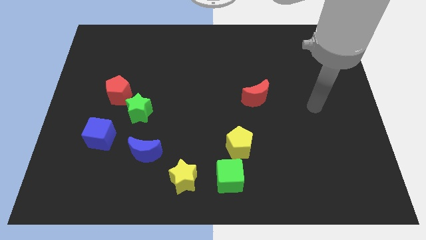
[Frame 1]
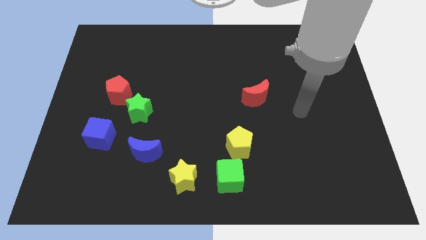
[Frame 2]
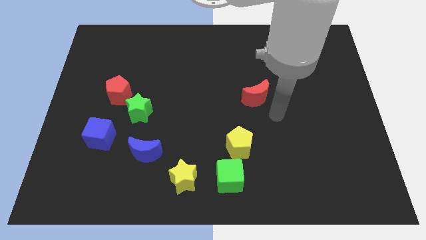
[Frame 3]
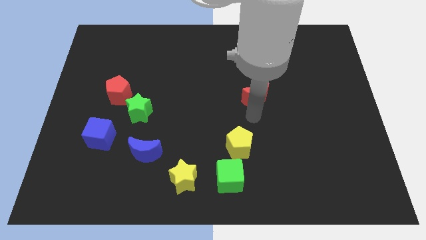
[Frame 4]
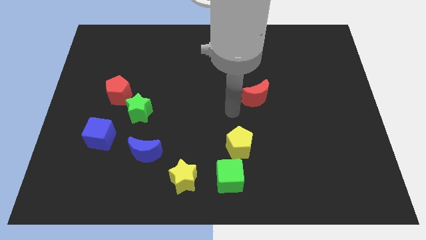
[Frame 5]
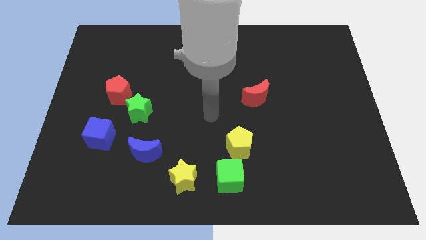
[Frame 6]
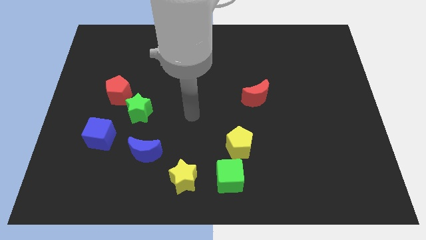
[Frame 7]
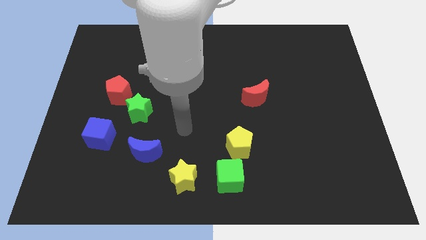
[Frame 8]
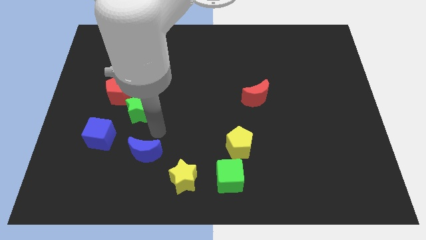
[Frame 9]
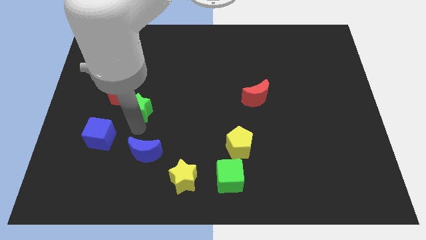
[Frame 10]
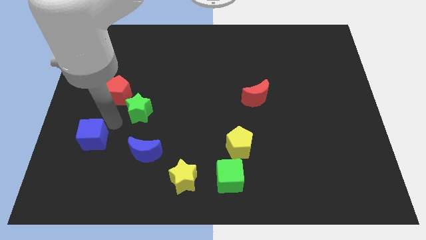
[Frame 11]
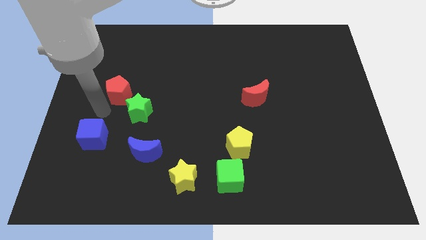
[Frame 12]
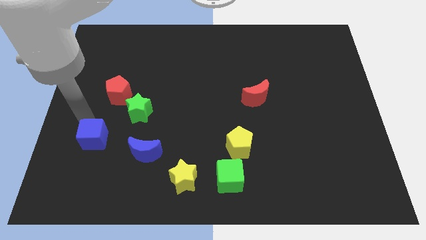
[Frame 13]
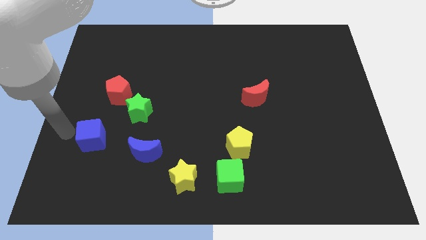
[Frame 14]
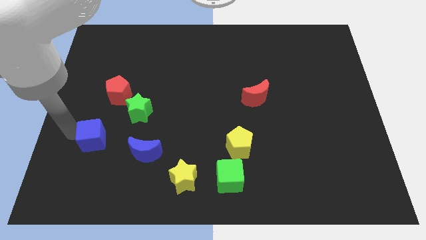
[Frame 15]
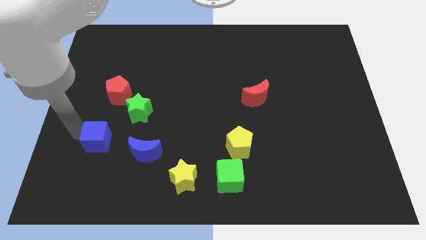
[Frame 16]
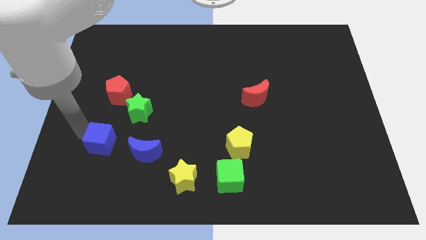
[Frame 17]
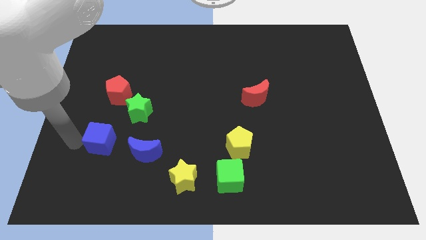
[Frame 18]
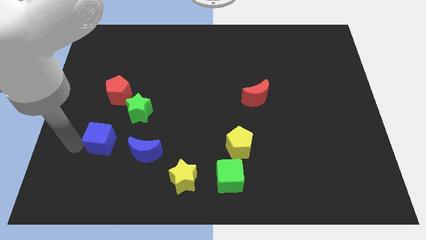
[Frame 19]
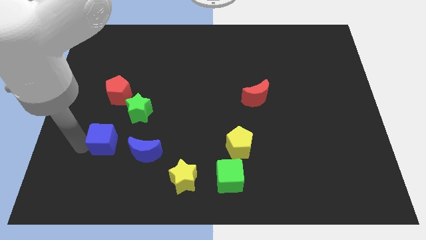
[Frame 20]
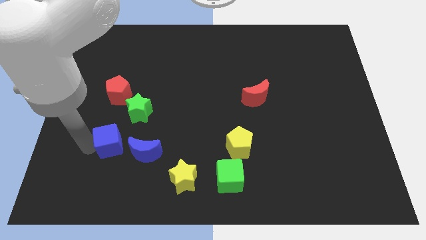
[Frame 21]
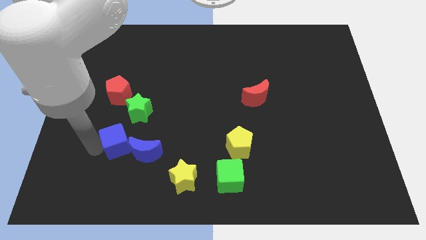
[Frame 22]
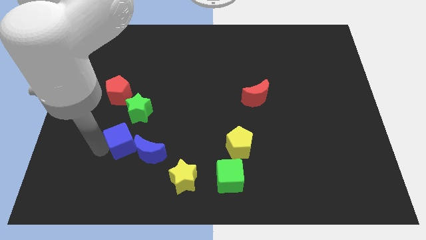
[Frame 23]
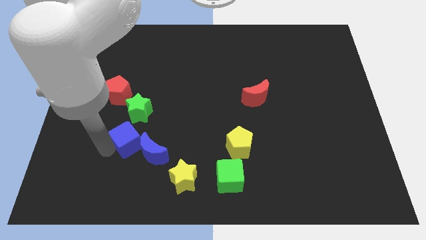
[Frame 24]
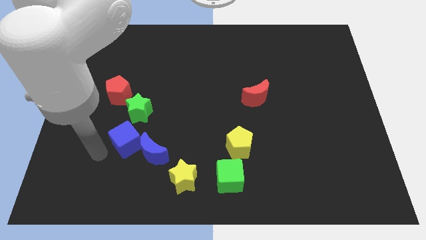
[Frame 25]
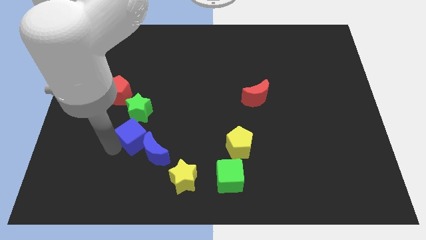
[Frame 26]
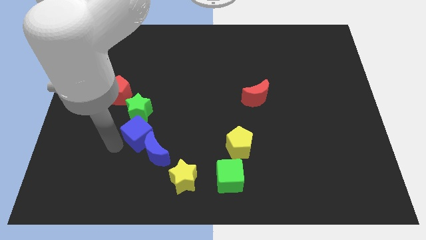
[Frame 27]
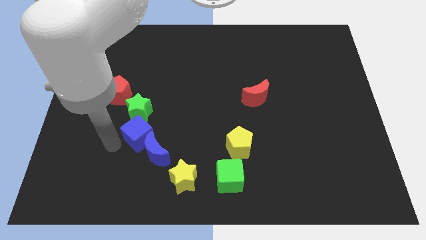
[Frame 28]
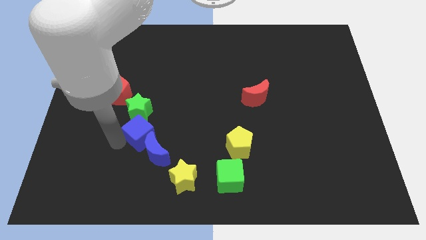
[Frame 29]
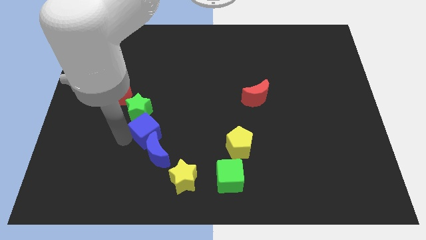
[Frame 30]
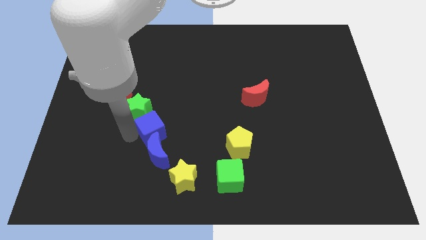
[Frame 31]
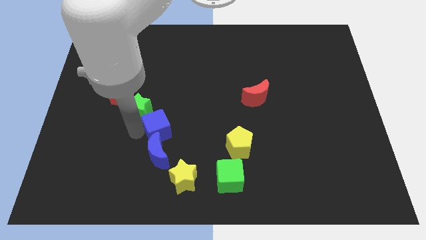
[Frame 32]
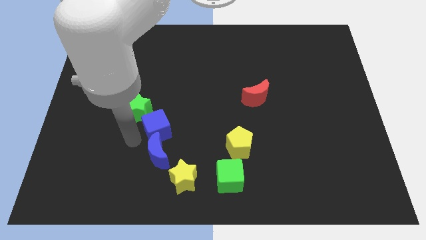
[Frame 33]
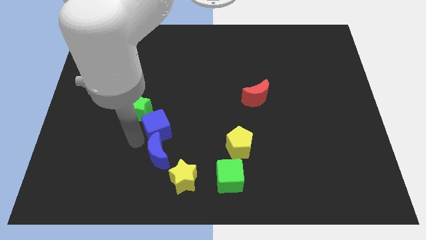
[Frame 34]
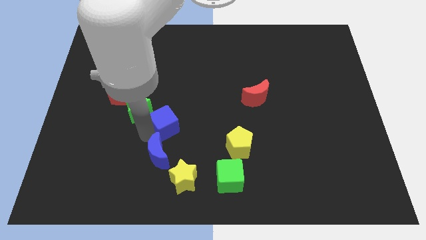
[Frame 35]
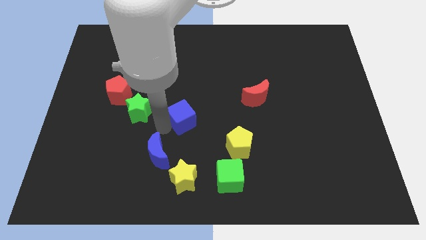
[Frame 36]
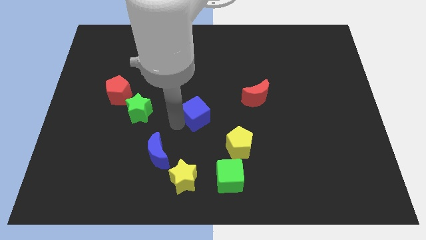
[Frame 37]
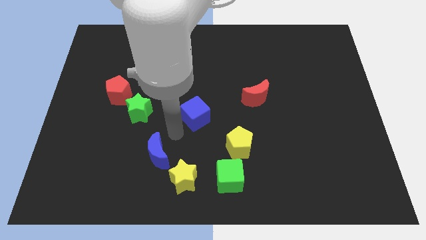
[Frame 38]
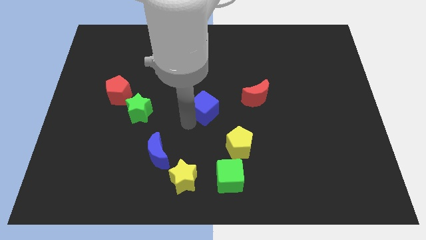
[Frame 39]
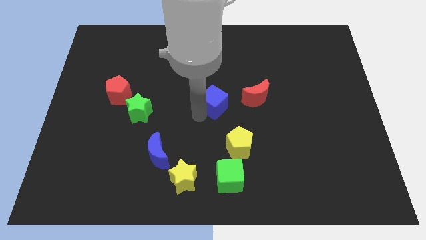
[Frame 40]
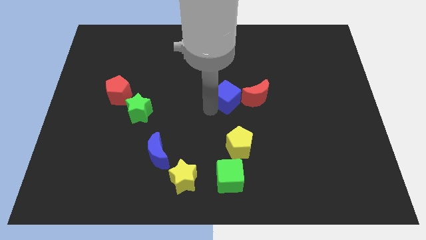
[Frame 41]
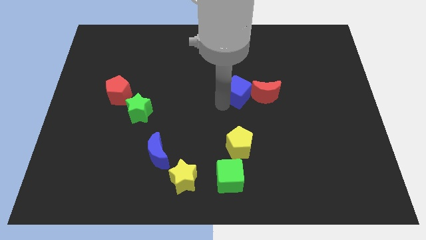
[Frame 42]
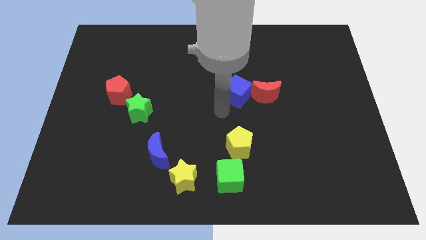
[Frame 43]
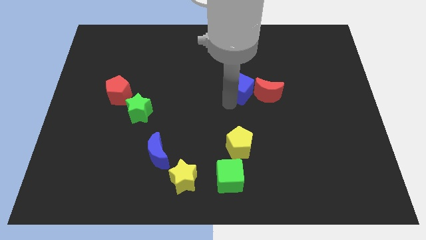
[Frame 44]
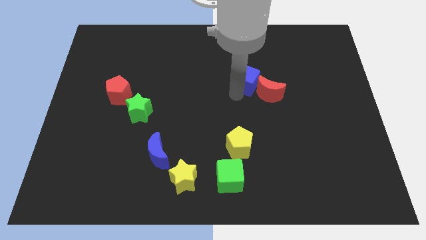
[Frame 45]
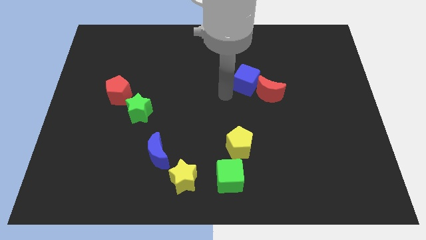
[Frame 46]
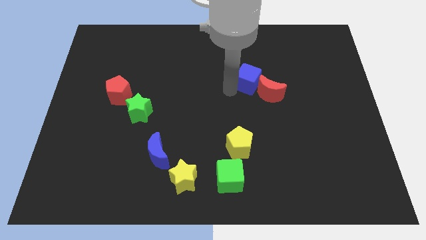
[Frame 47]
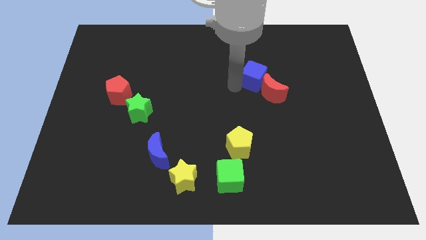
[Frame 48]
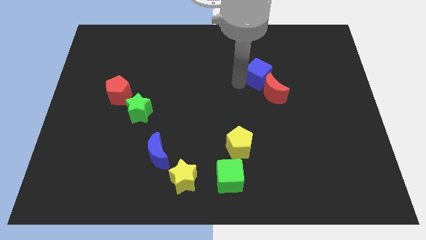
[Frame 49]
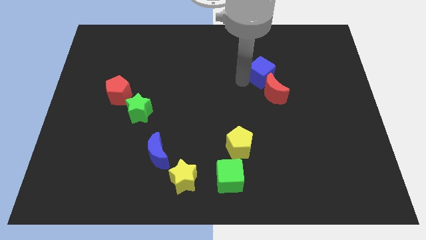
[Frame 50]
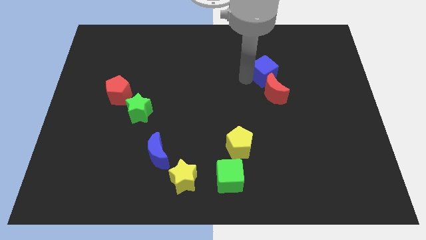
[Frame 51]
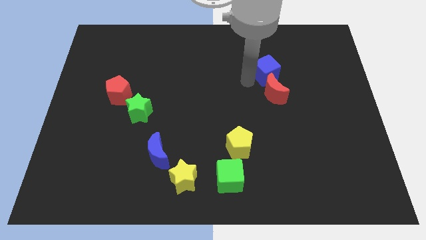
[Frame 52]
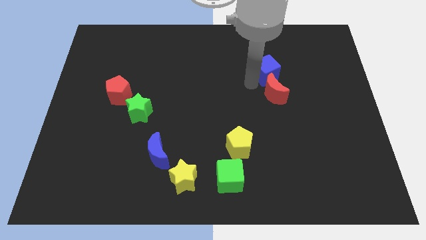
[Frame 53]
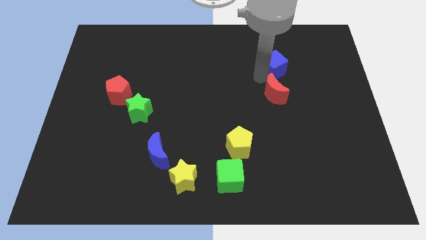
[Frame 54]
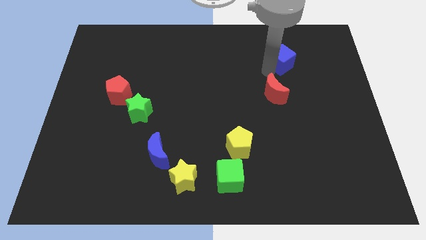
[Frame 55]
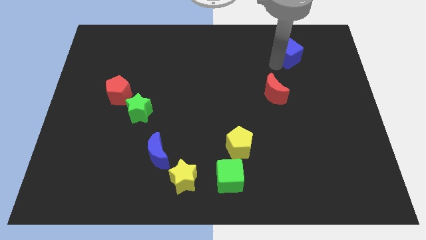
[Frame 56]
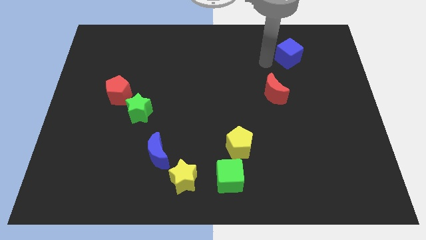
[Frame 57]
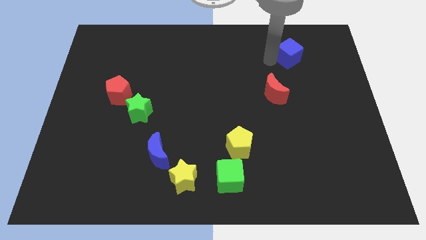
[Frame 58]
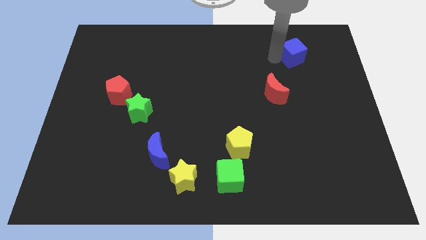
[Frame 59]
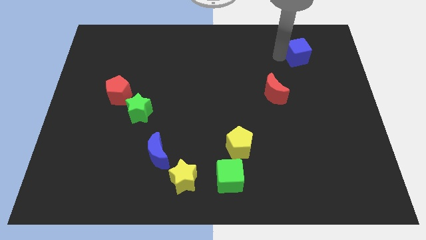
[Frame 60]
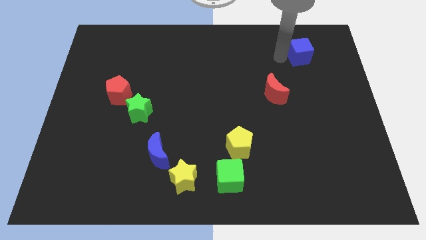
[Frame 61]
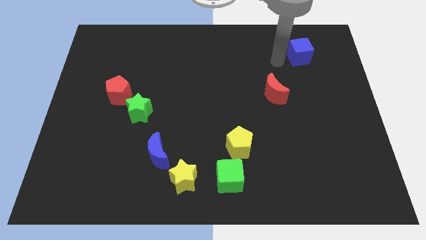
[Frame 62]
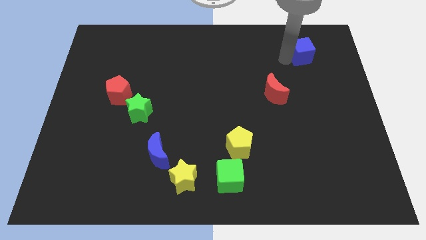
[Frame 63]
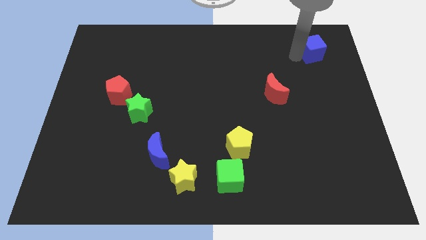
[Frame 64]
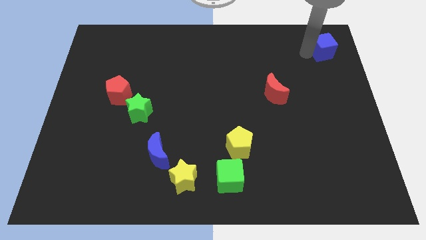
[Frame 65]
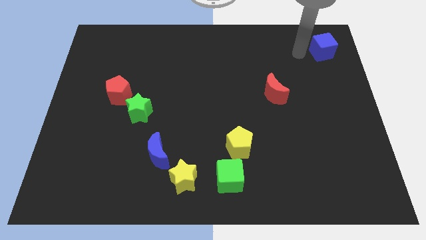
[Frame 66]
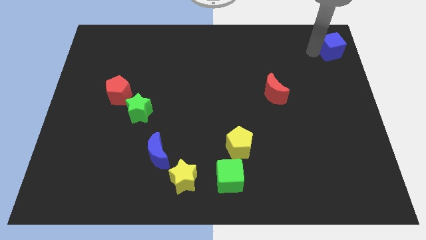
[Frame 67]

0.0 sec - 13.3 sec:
slide the blue cube to the top right corner
